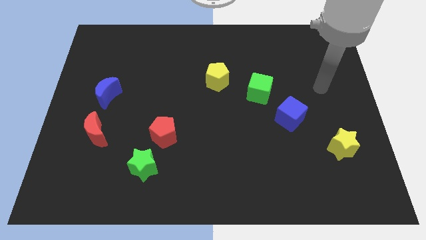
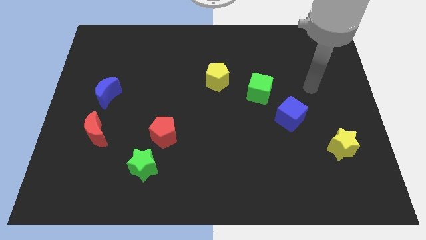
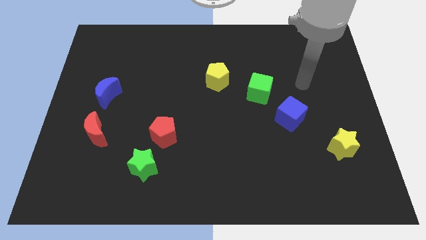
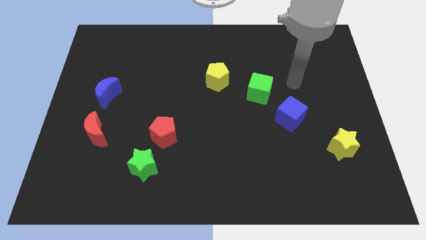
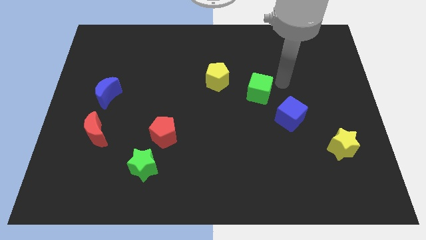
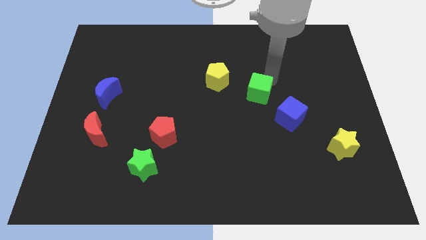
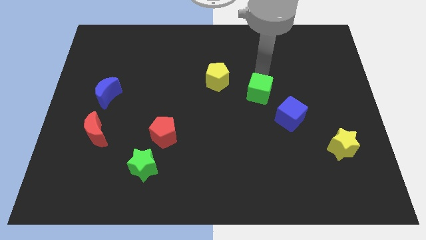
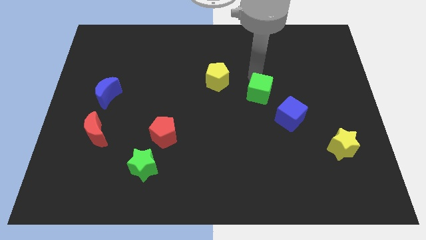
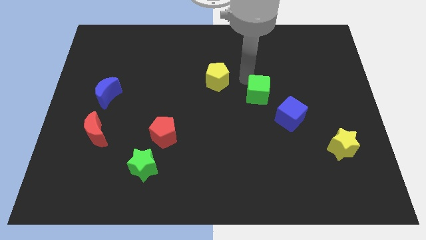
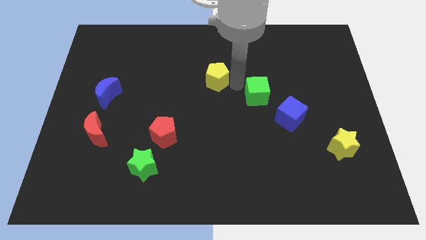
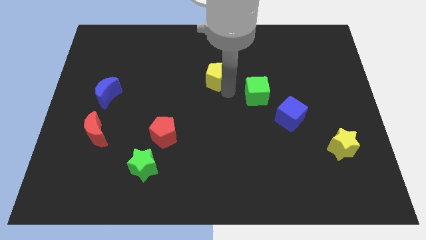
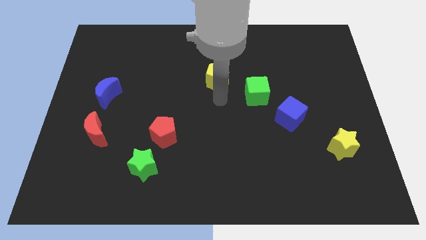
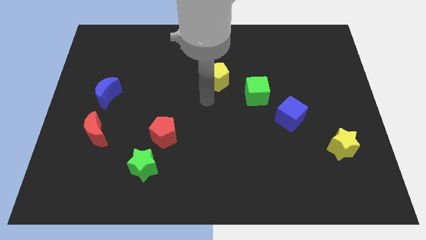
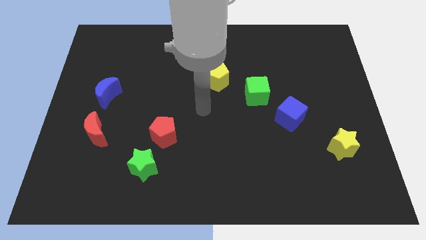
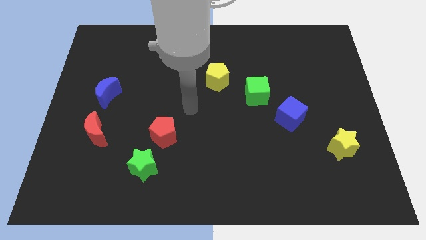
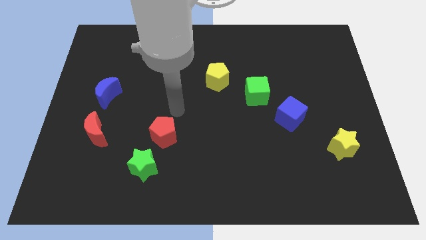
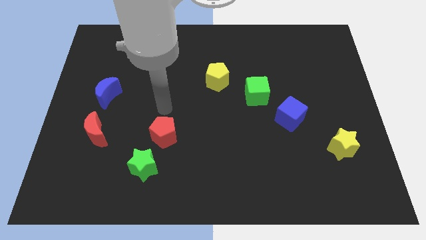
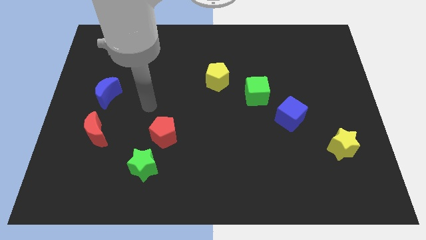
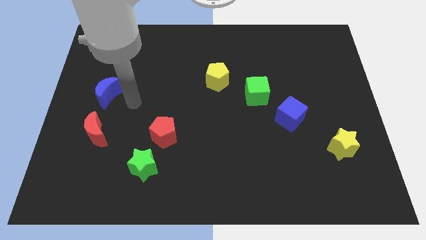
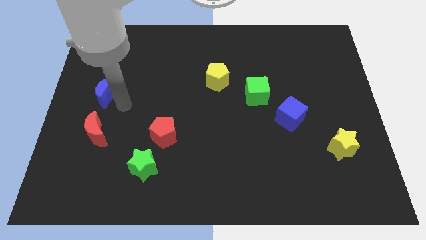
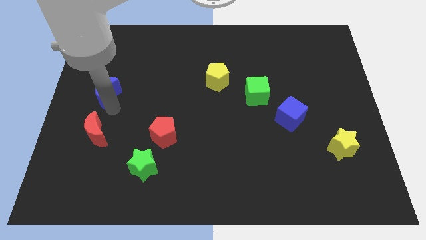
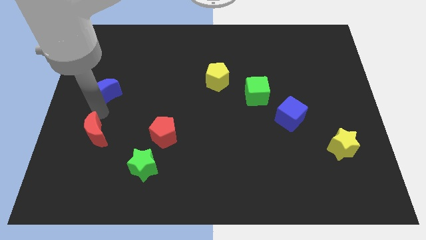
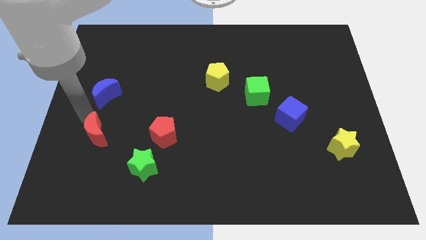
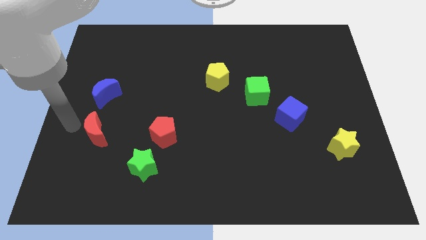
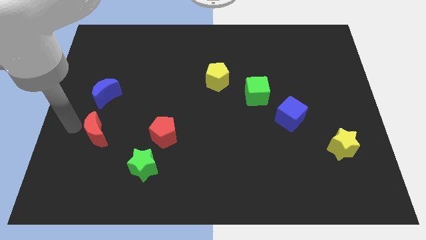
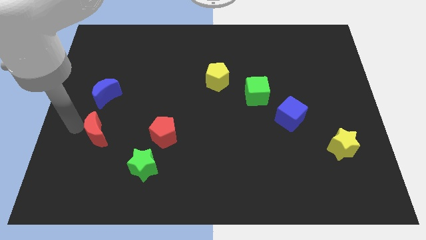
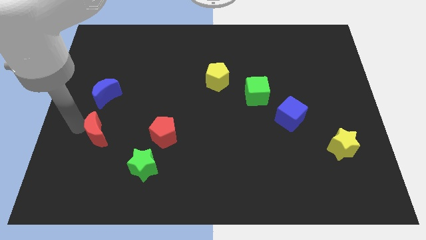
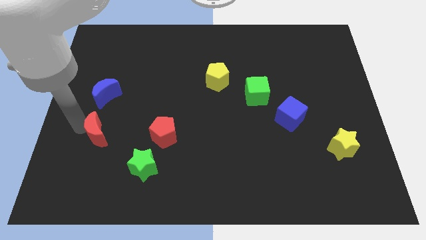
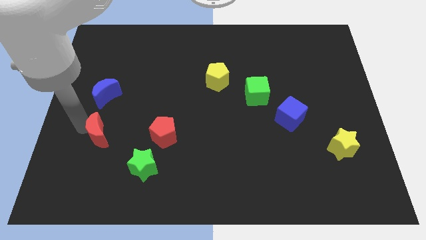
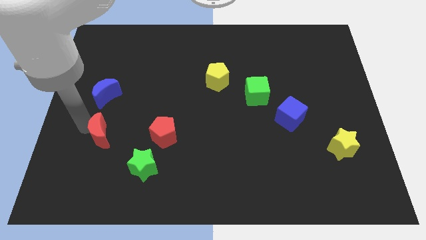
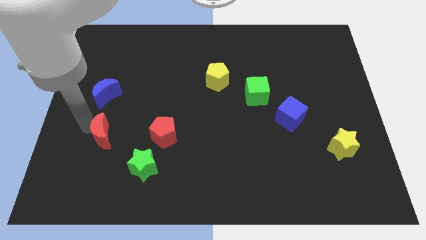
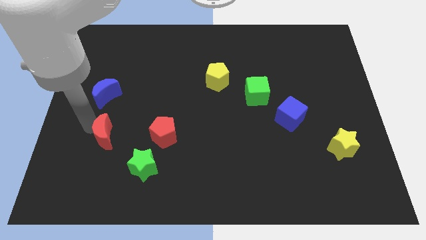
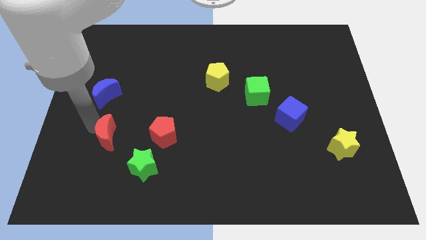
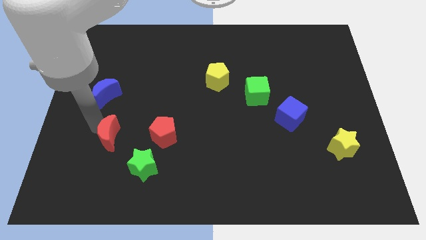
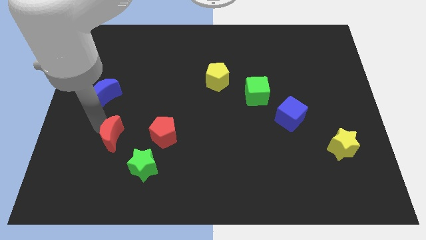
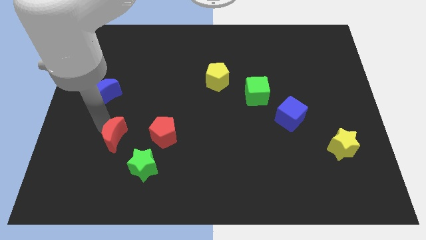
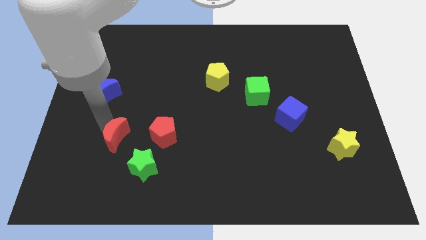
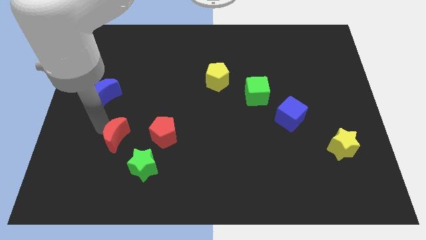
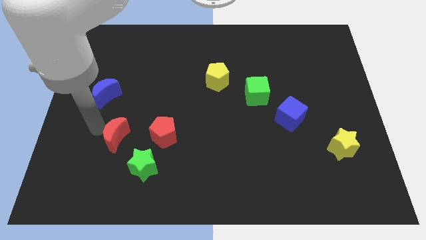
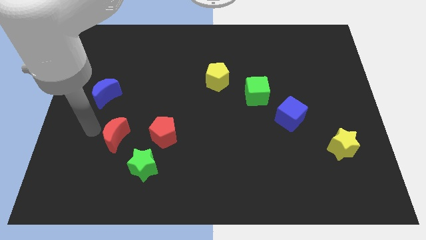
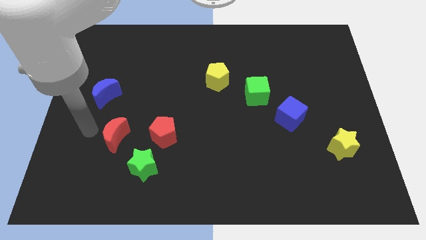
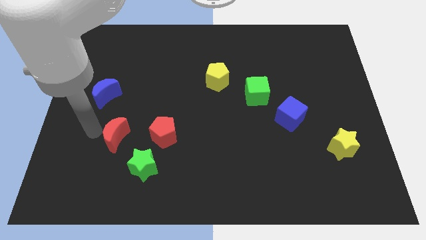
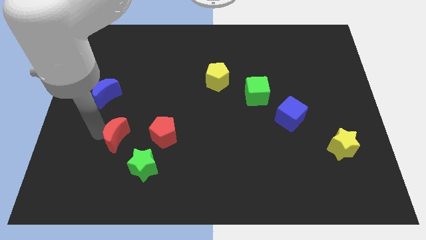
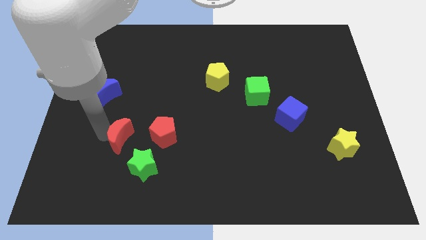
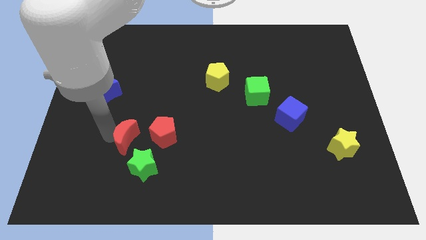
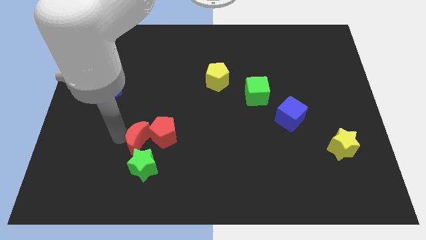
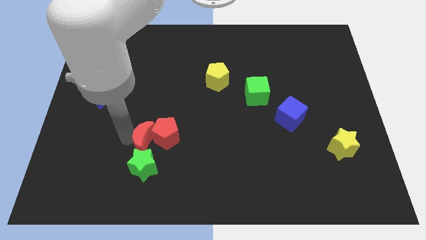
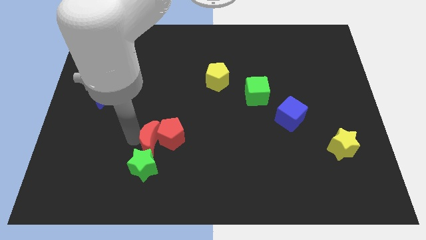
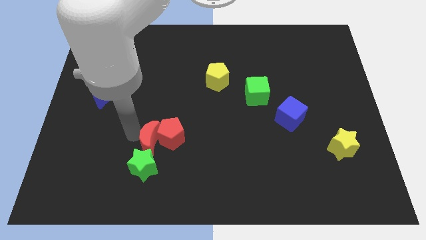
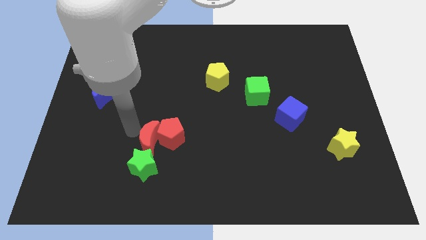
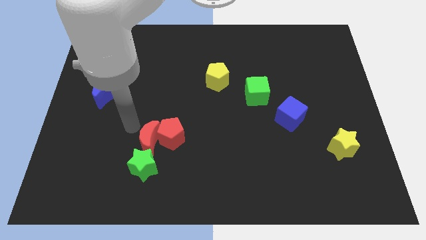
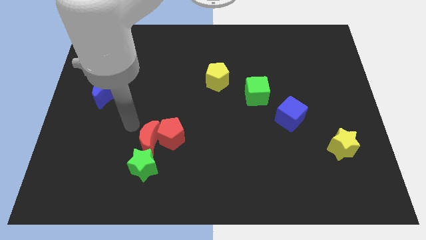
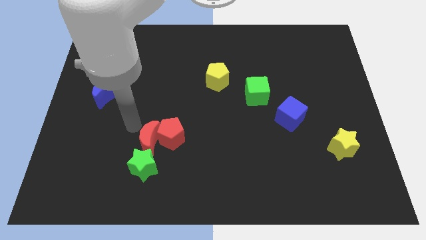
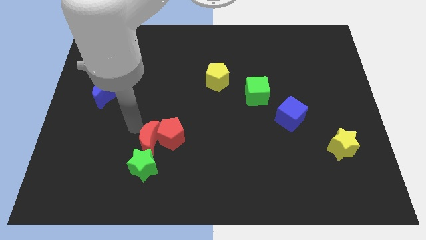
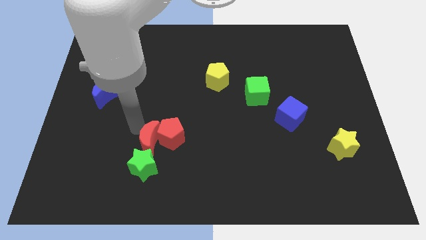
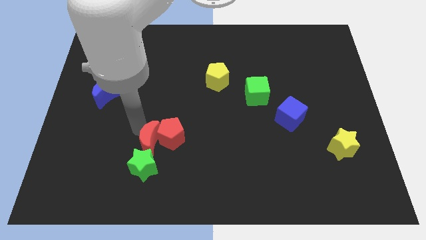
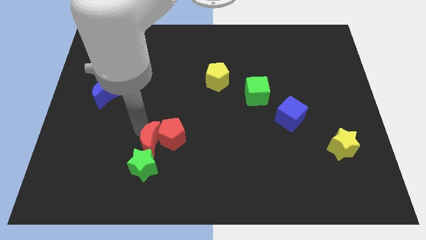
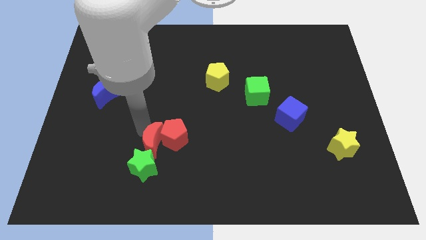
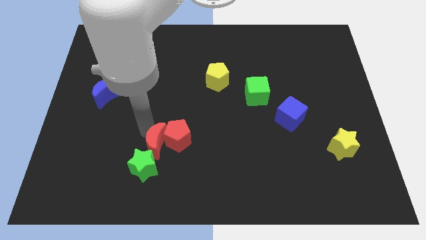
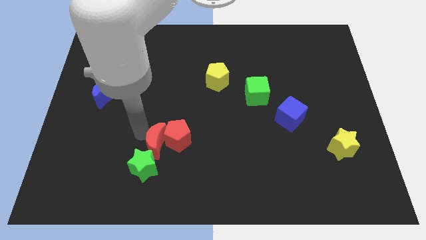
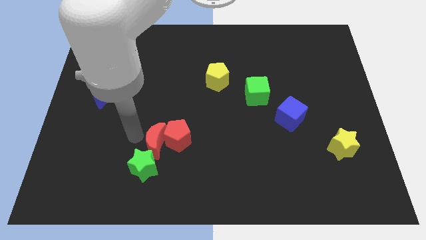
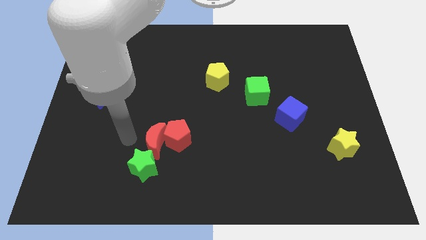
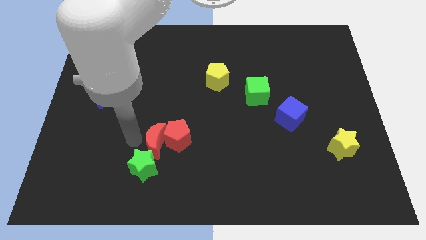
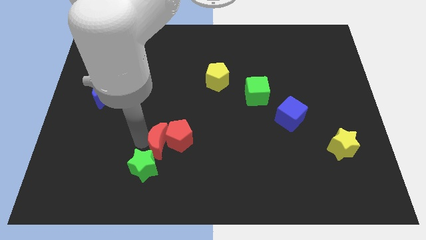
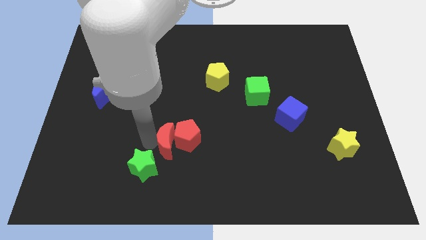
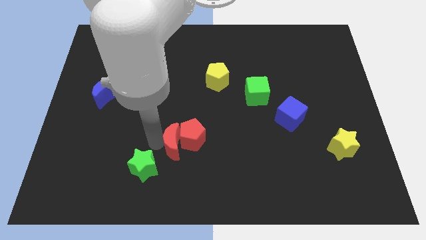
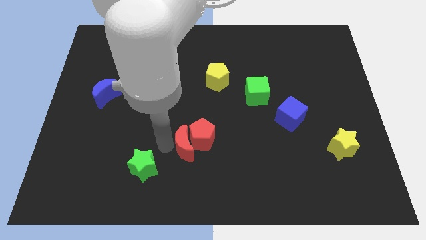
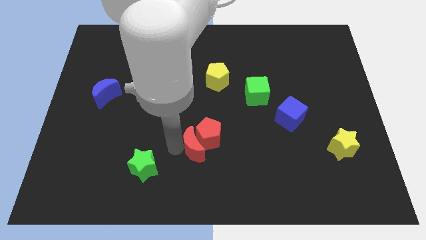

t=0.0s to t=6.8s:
slide the red moon to the right

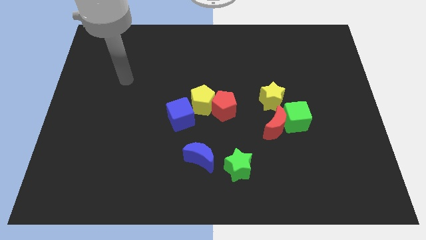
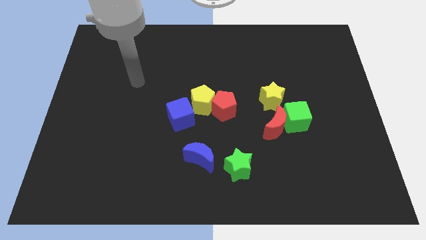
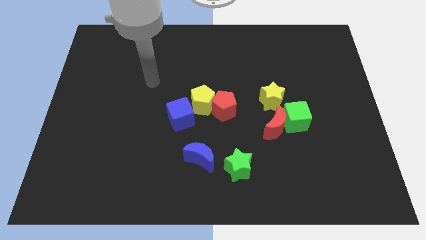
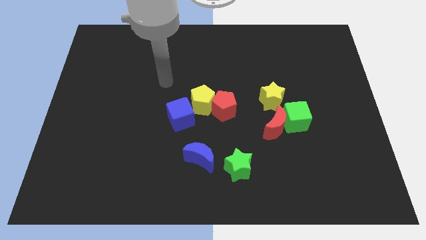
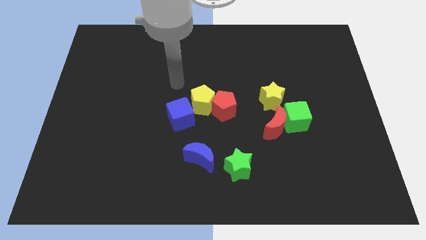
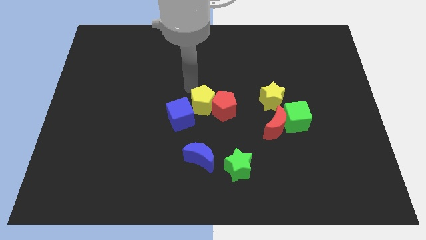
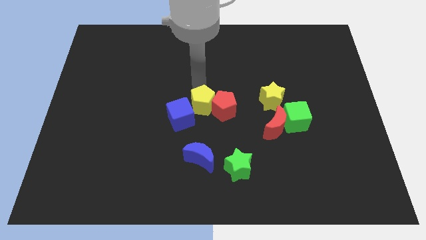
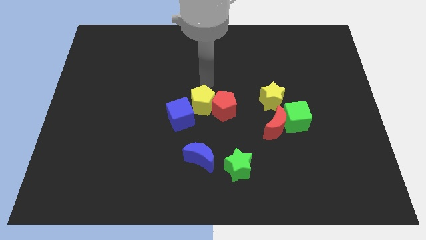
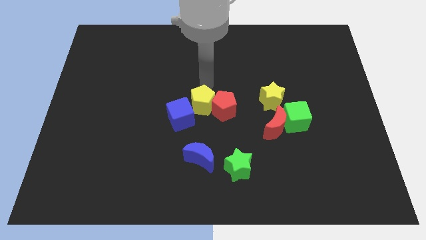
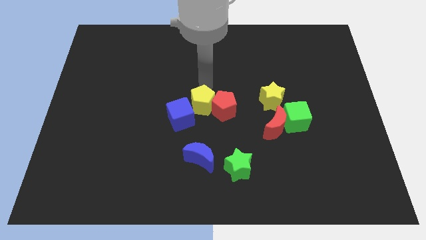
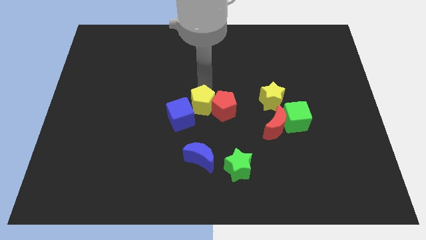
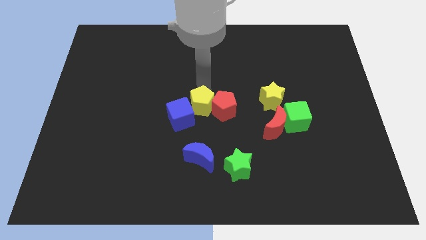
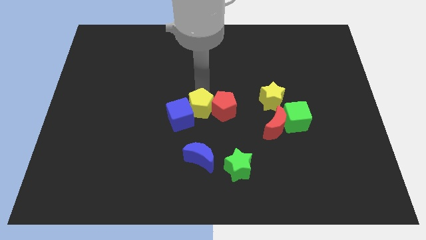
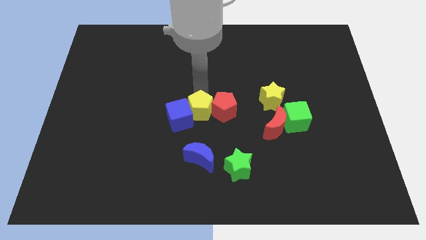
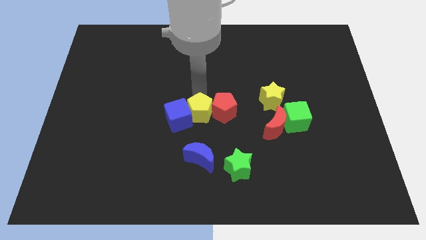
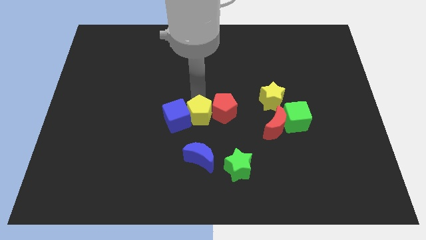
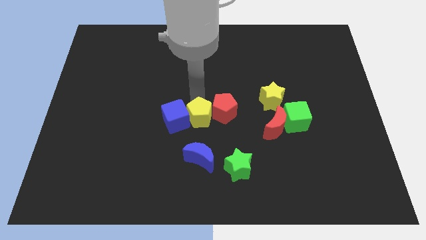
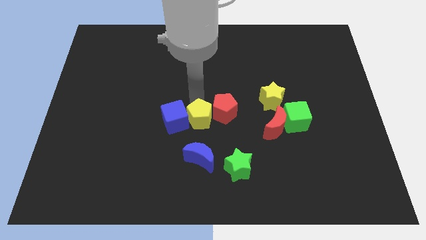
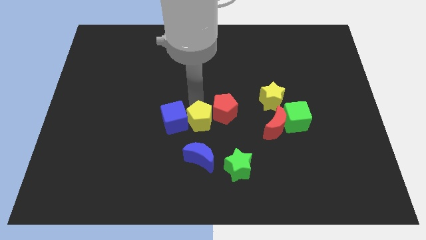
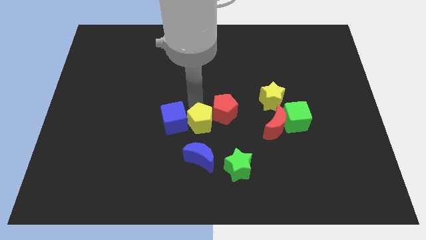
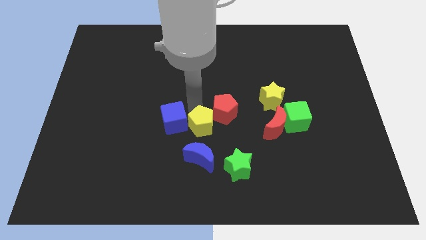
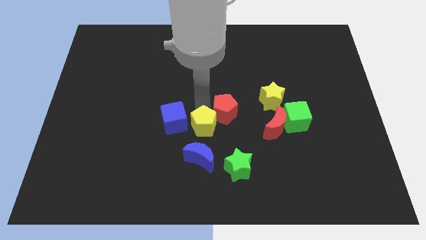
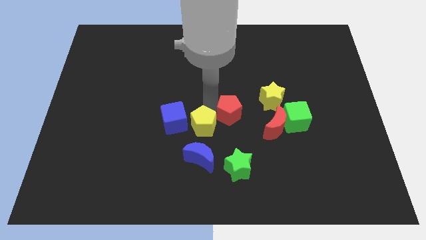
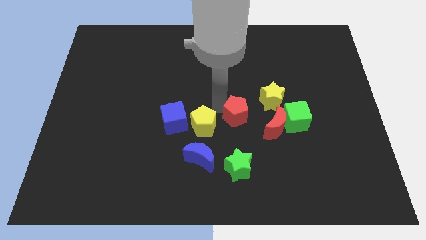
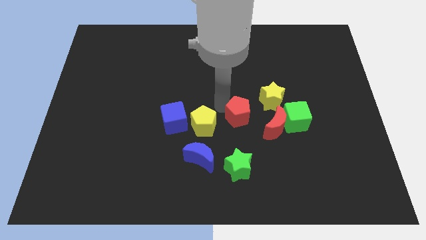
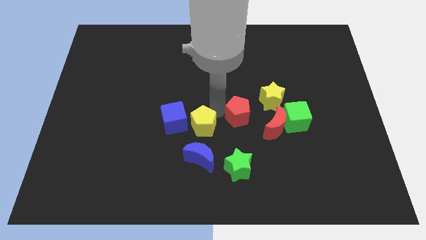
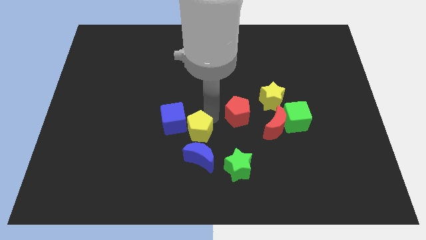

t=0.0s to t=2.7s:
slightly move the yellow pentagon downwards
